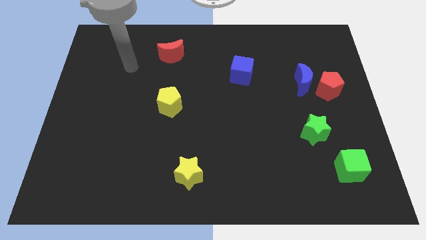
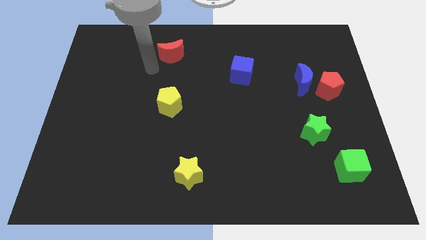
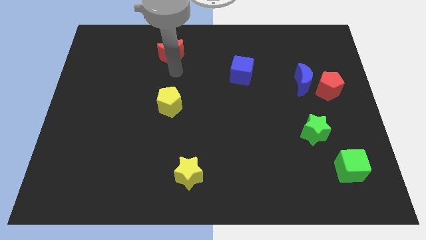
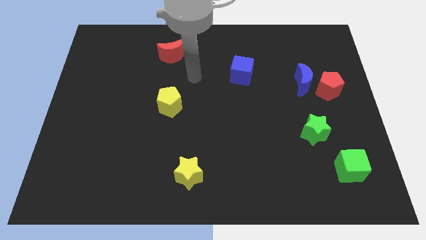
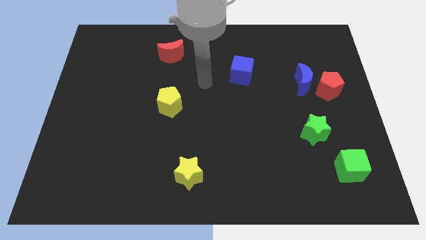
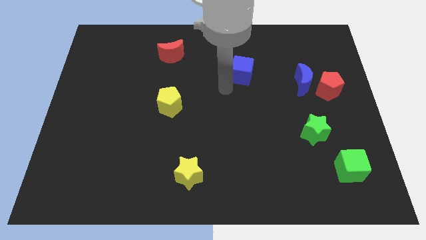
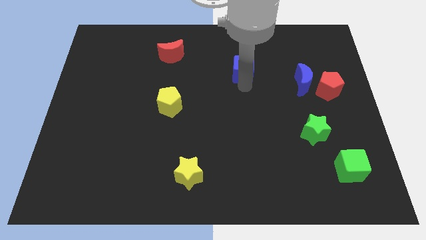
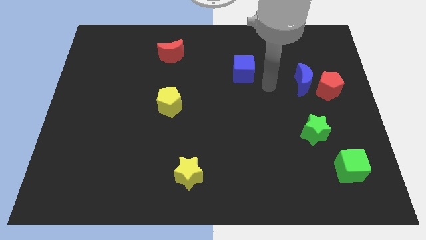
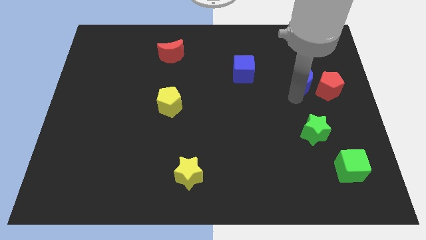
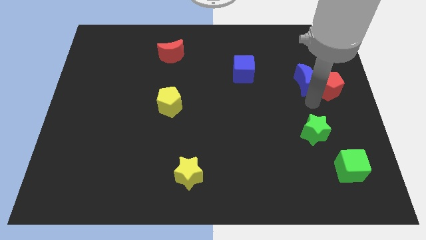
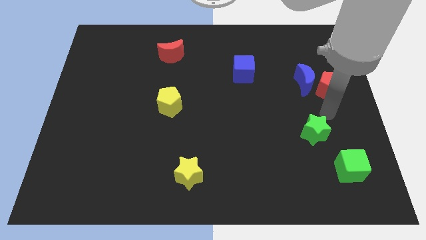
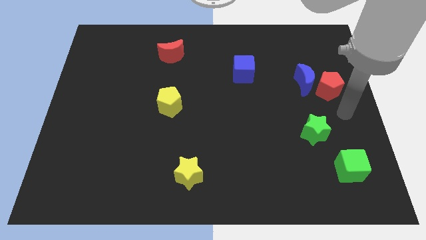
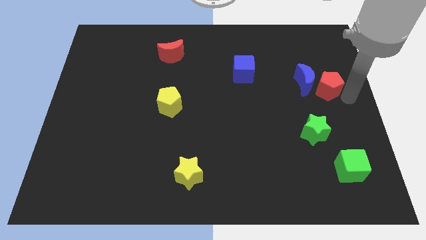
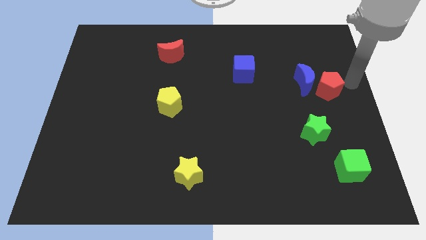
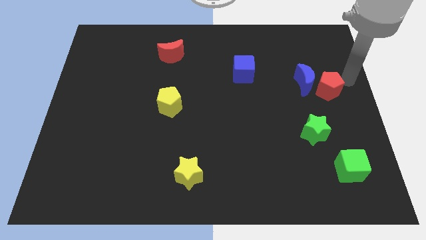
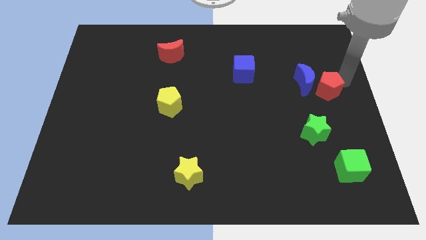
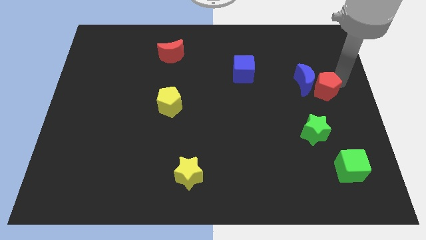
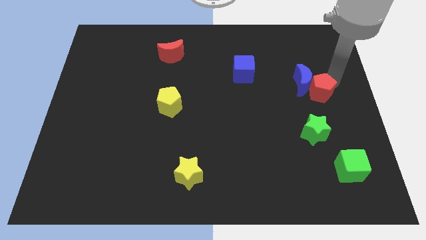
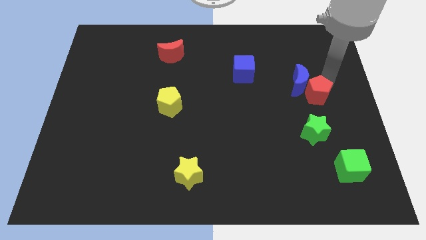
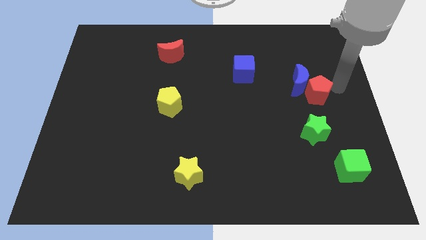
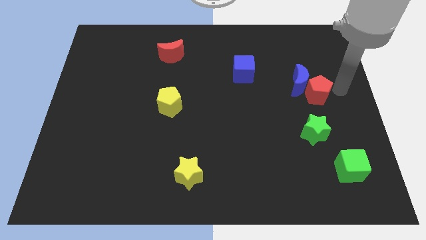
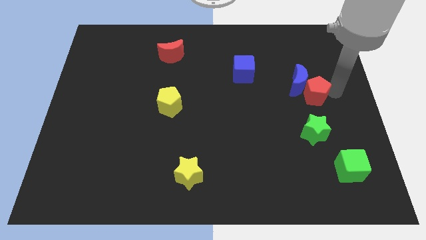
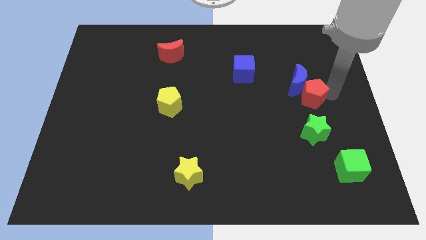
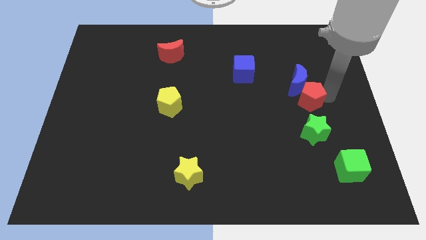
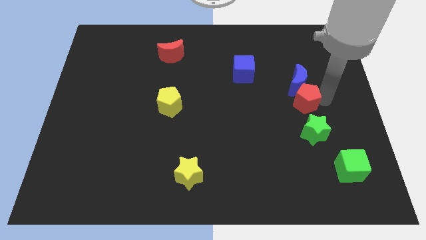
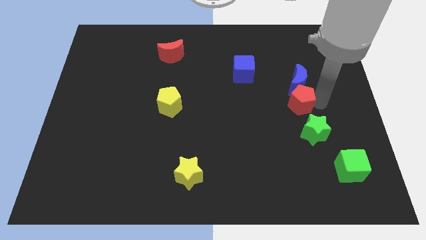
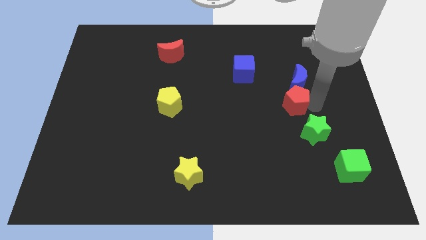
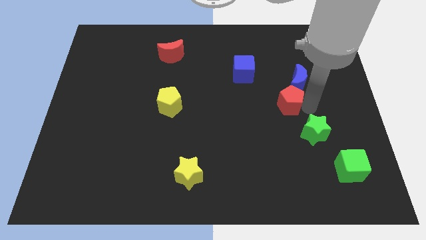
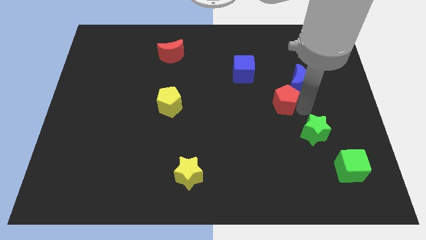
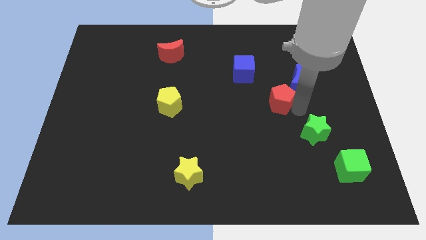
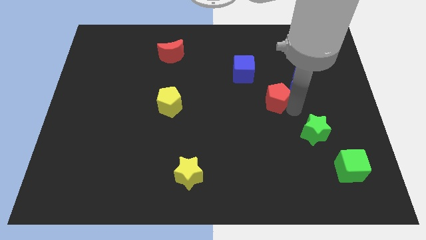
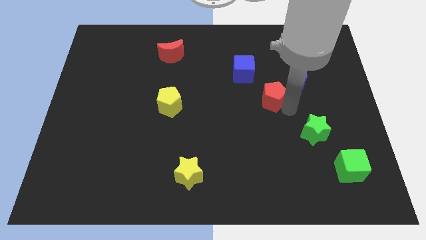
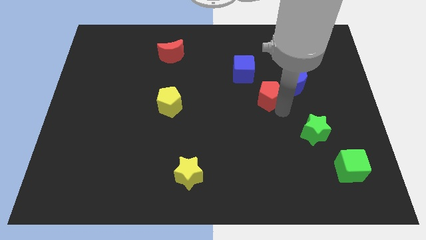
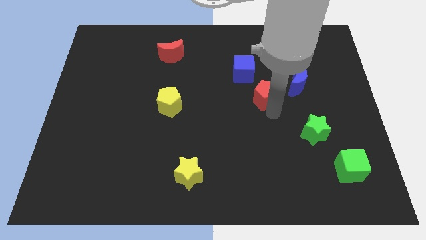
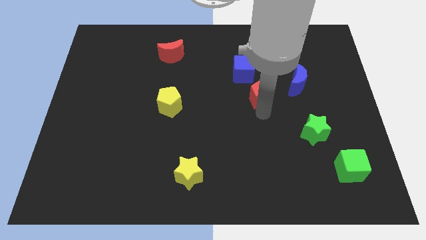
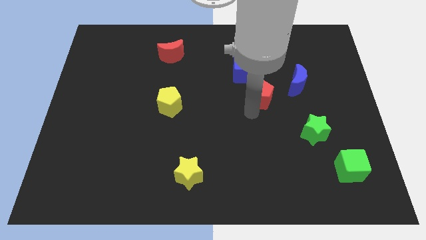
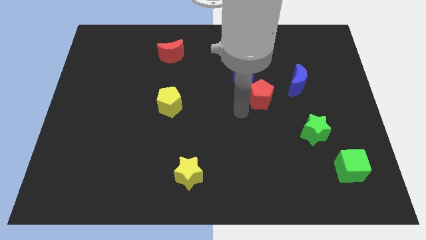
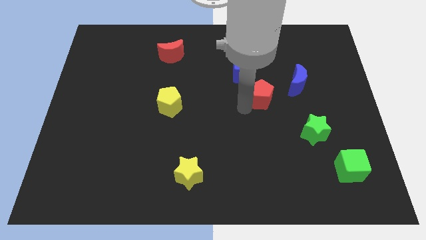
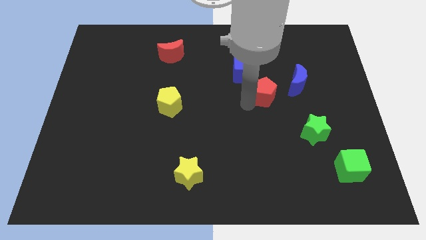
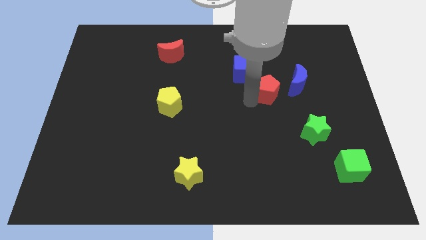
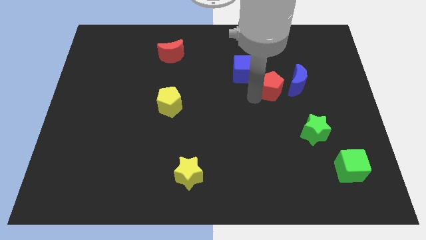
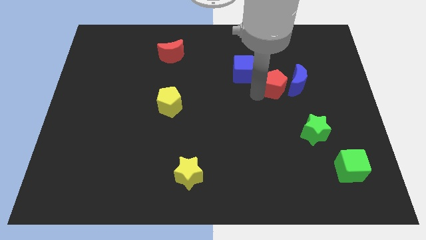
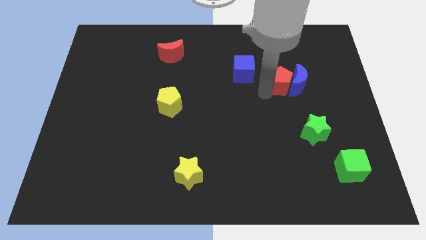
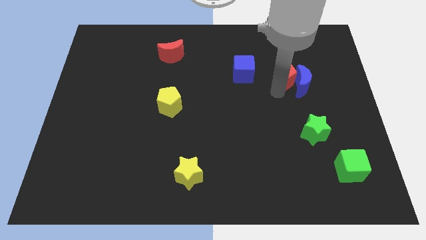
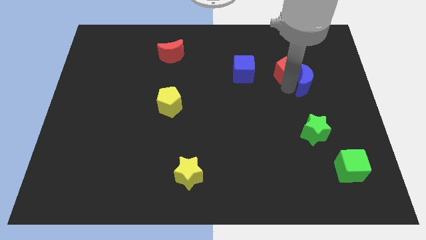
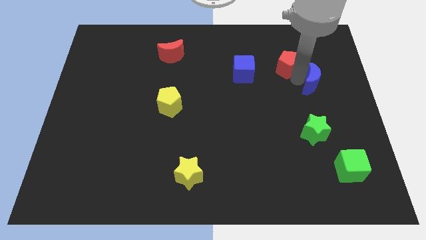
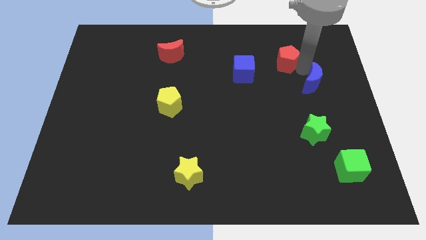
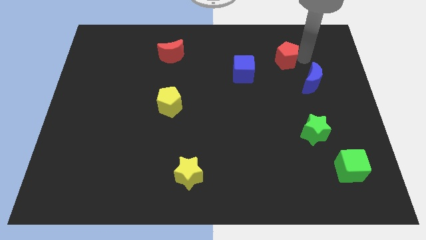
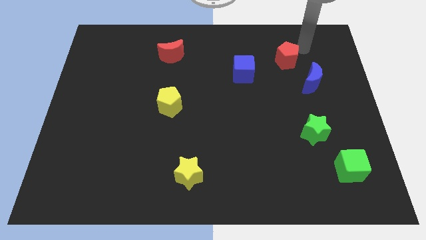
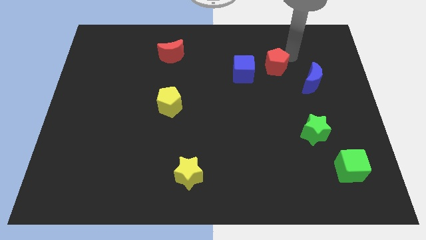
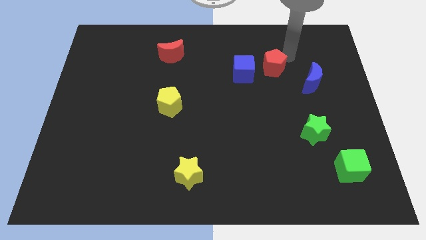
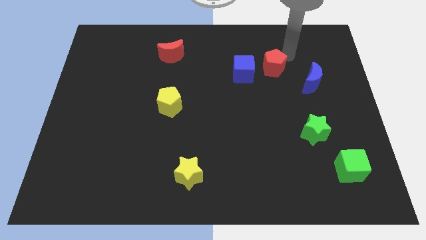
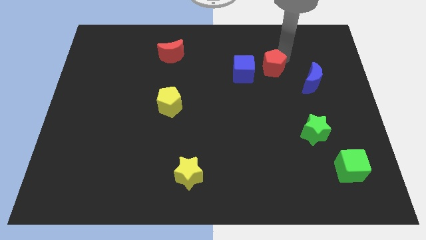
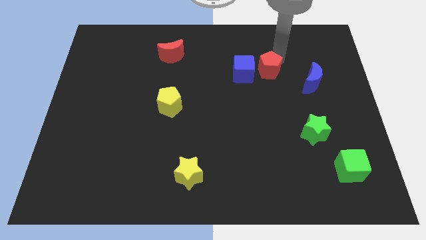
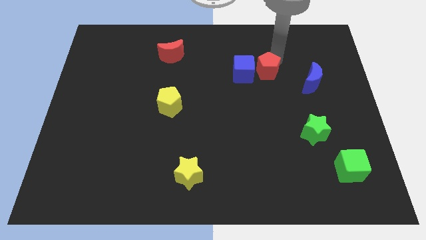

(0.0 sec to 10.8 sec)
put the red pentagon to the blue cube

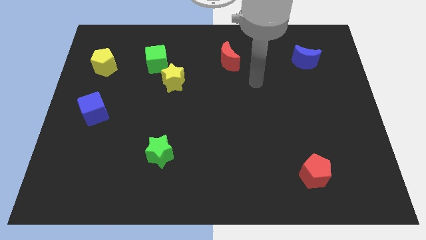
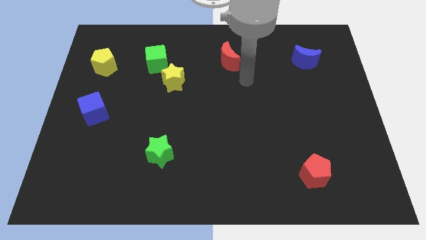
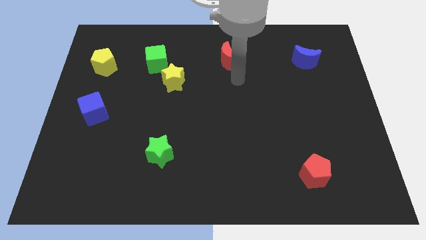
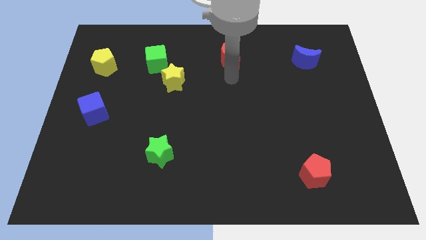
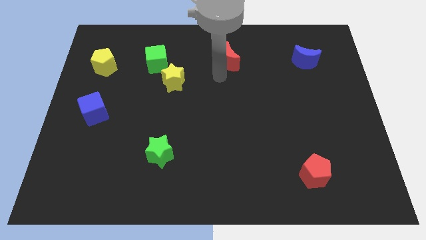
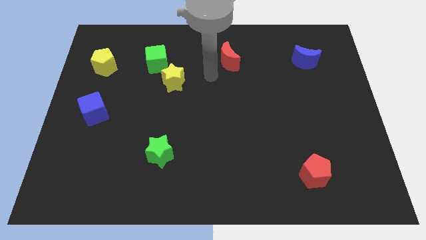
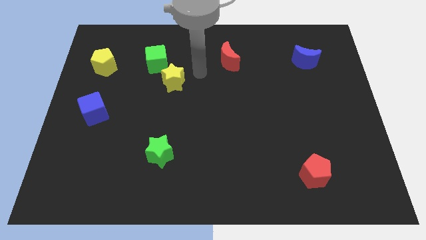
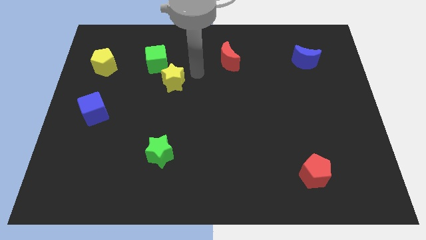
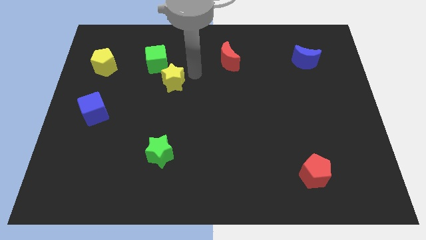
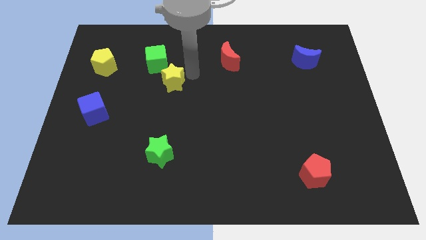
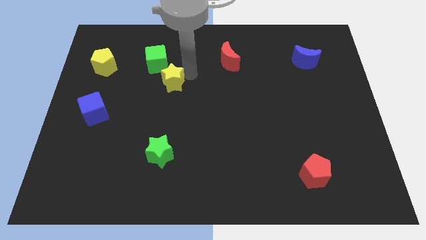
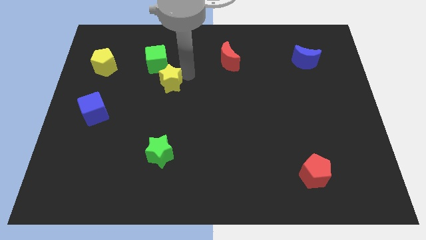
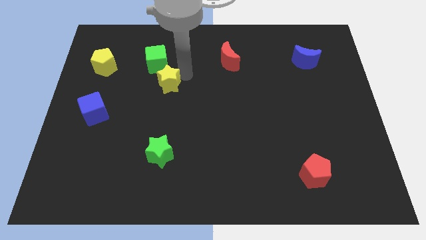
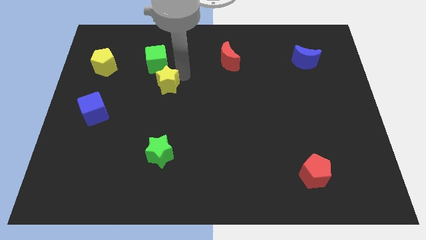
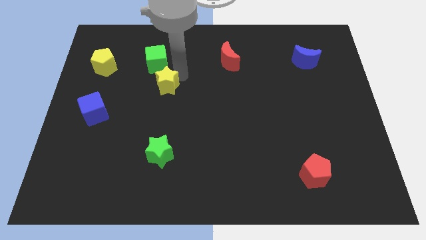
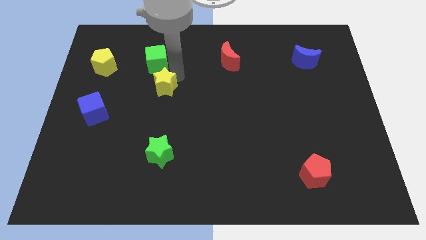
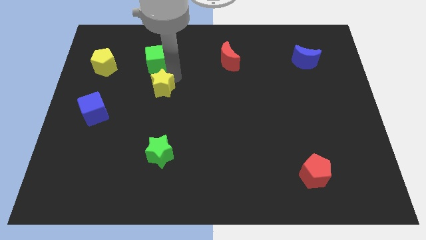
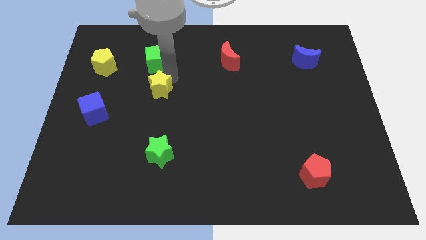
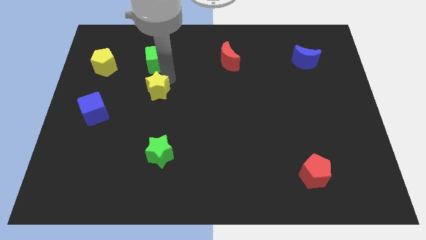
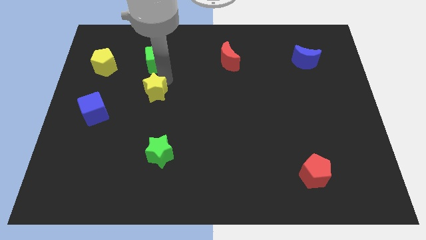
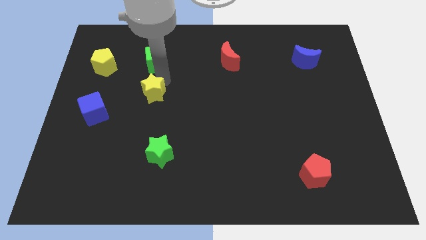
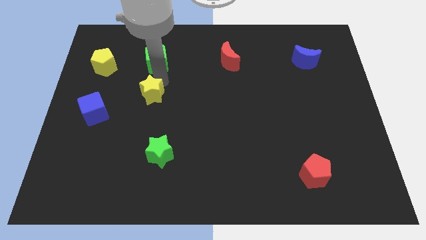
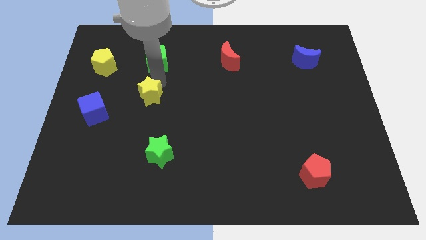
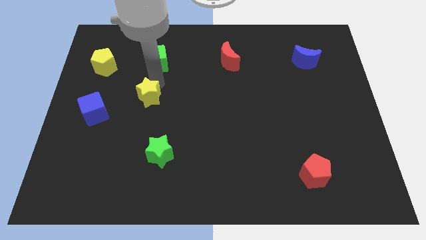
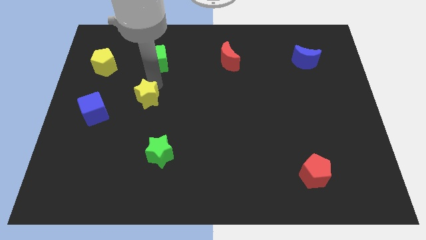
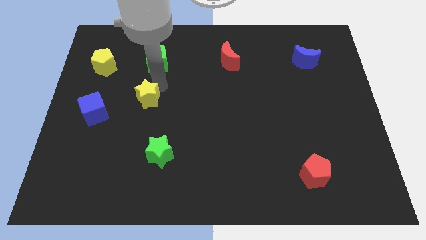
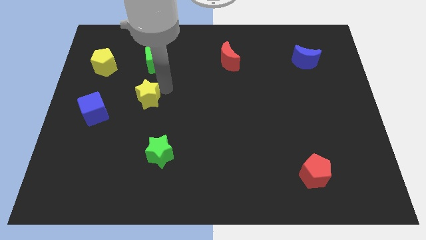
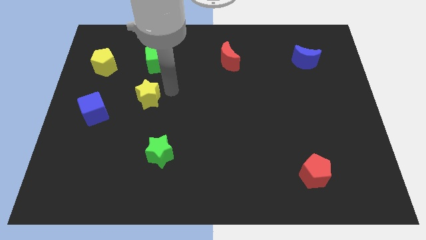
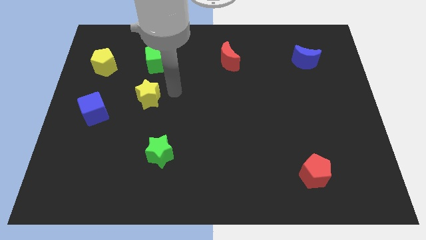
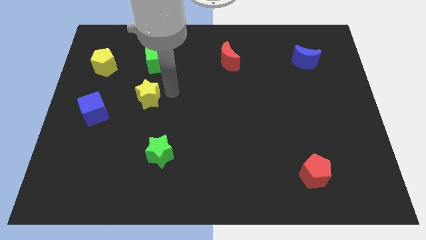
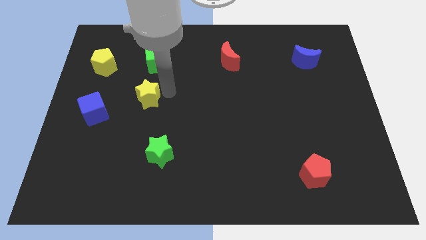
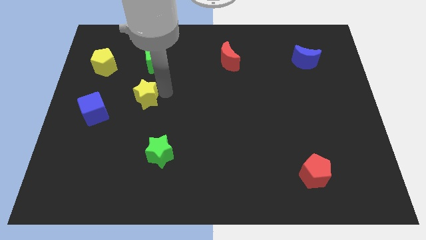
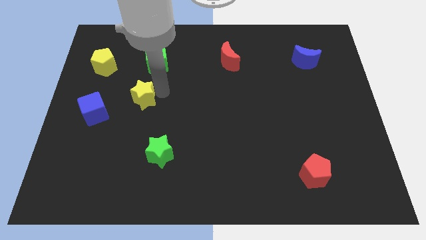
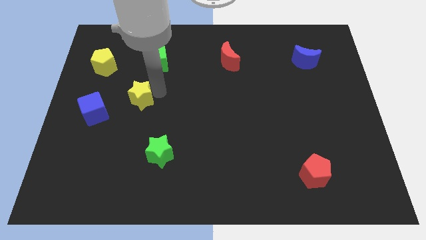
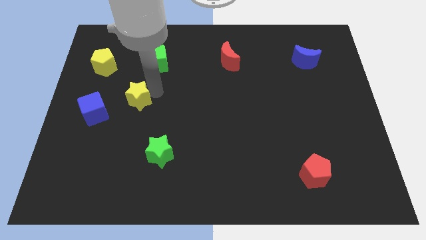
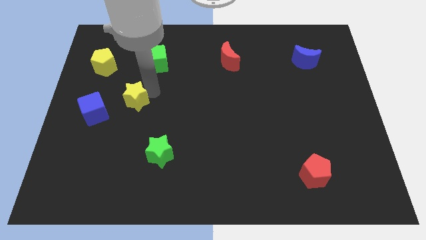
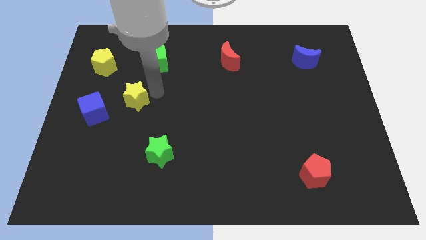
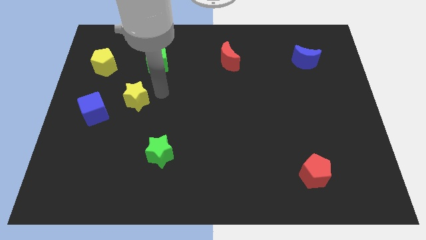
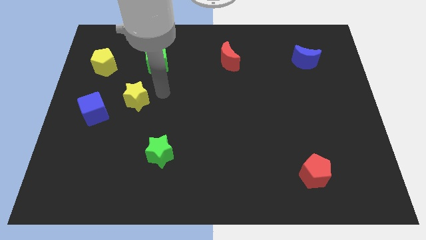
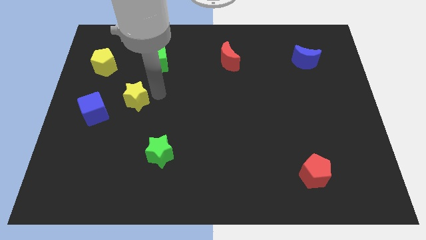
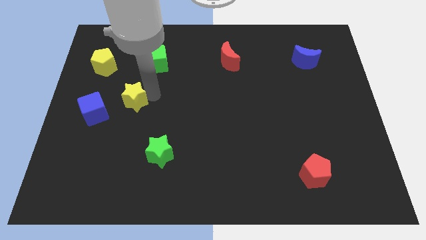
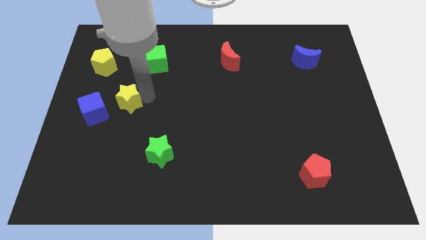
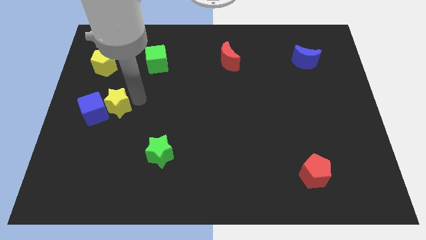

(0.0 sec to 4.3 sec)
push the yellow star to the blue cube
